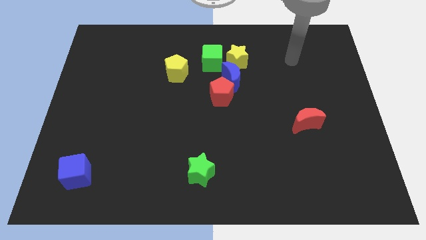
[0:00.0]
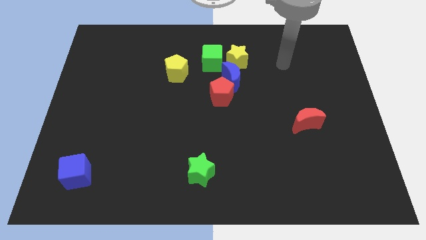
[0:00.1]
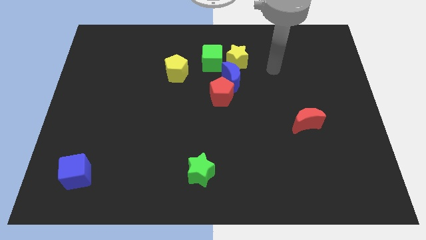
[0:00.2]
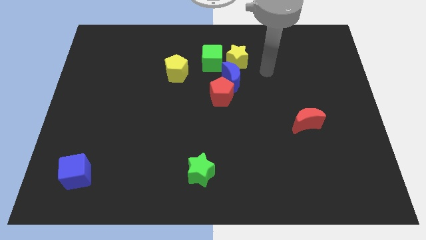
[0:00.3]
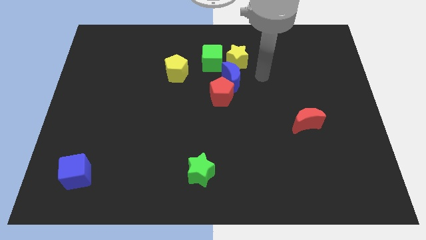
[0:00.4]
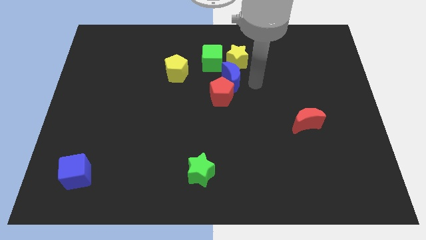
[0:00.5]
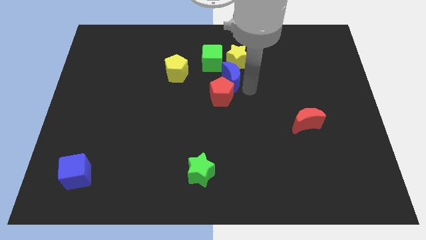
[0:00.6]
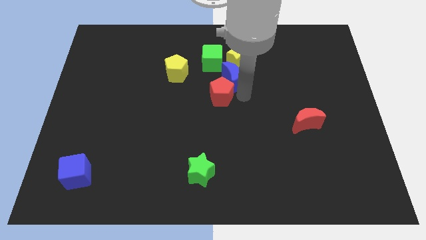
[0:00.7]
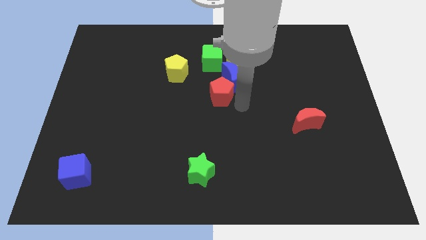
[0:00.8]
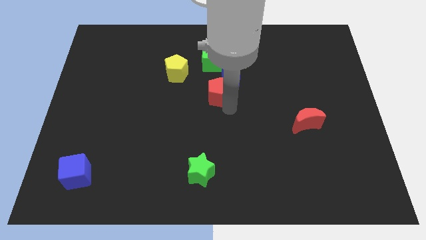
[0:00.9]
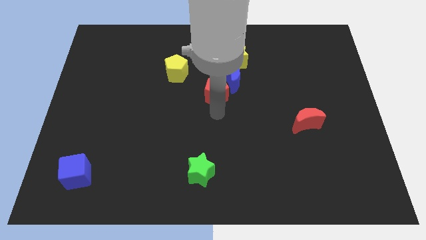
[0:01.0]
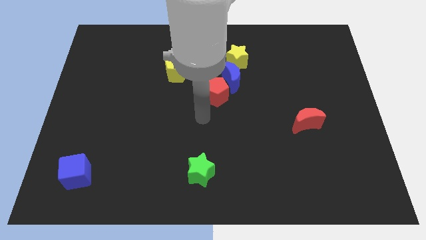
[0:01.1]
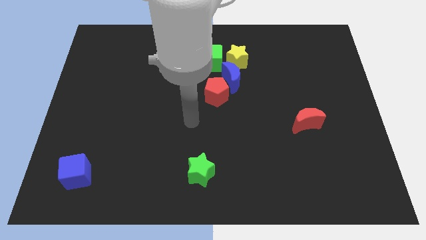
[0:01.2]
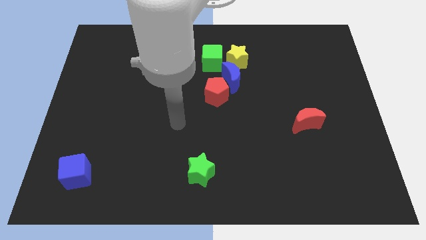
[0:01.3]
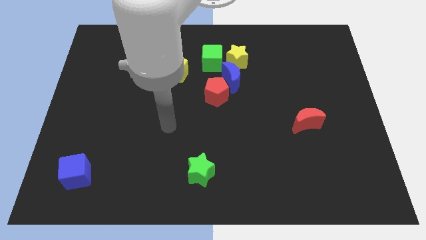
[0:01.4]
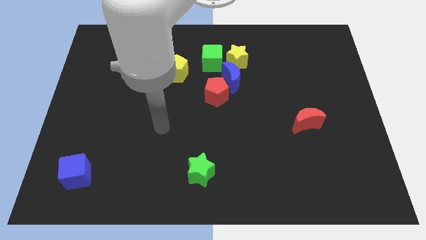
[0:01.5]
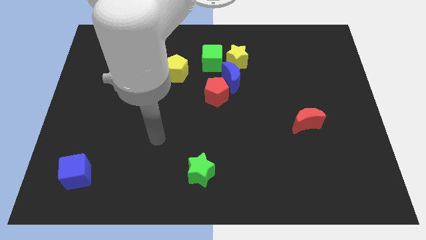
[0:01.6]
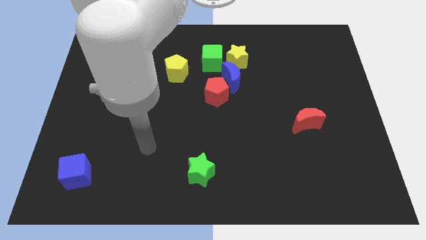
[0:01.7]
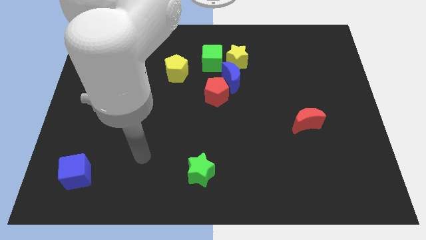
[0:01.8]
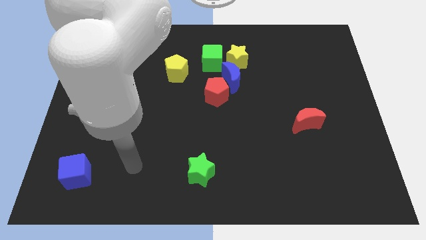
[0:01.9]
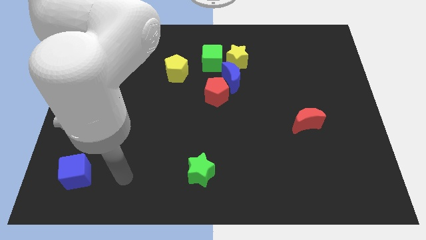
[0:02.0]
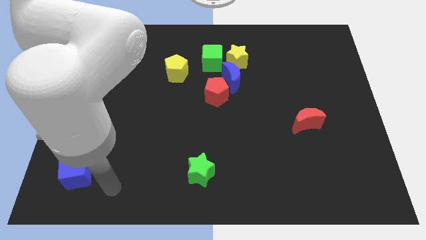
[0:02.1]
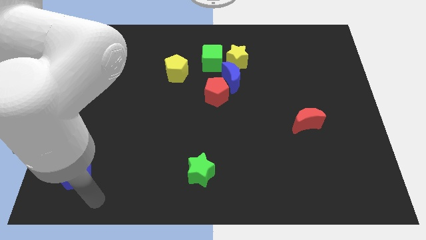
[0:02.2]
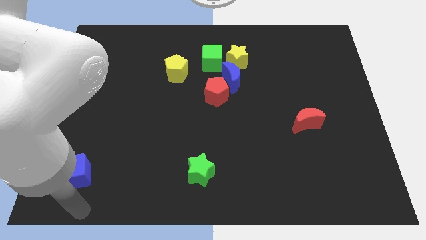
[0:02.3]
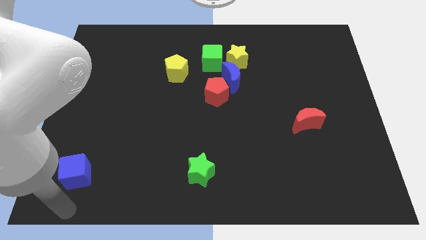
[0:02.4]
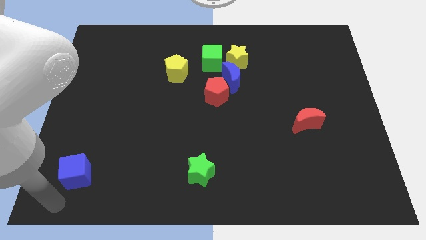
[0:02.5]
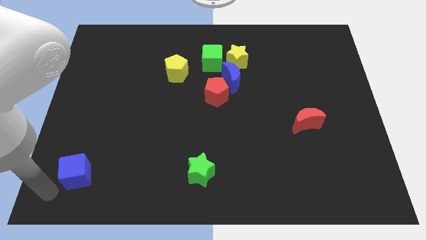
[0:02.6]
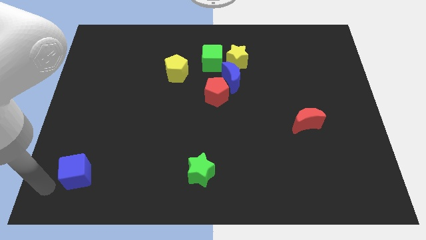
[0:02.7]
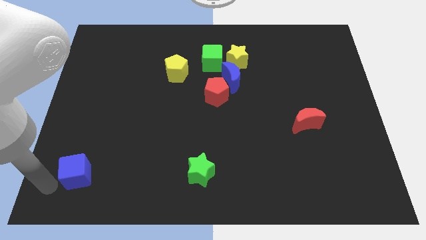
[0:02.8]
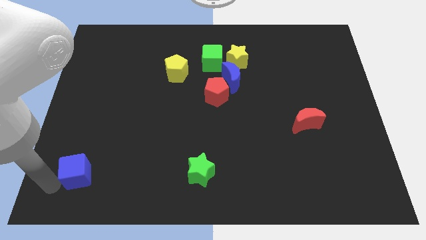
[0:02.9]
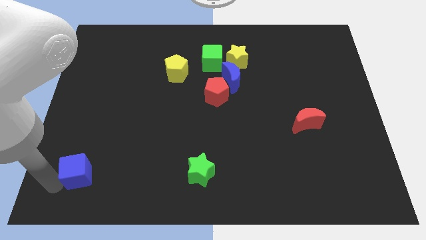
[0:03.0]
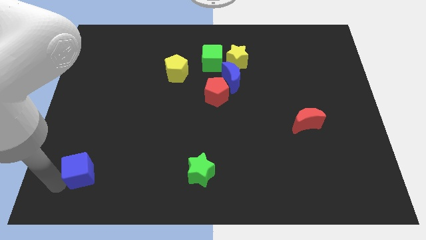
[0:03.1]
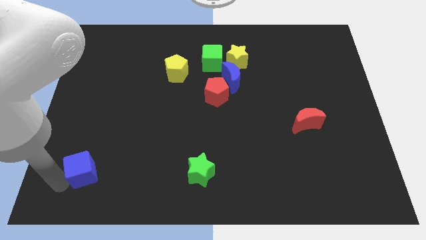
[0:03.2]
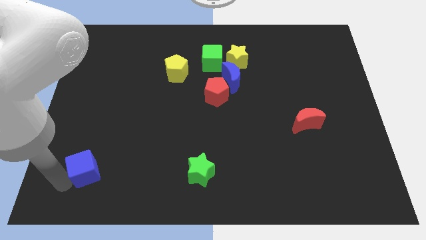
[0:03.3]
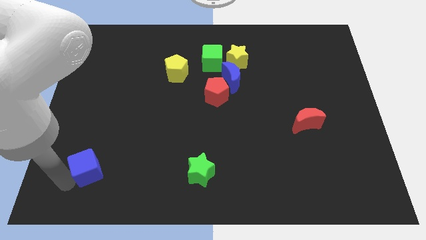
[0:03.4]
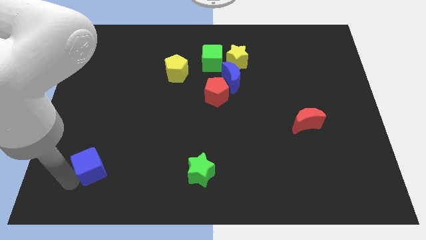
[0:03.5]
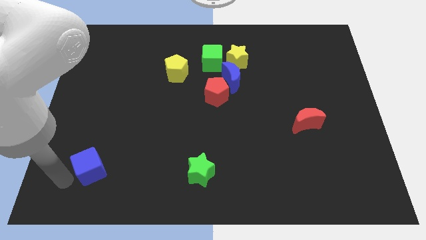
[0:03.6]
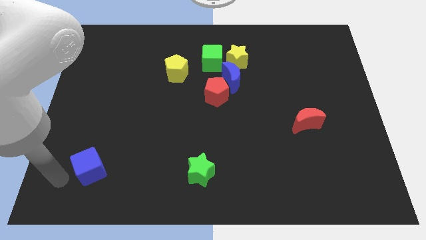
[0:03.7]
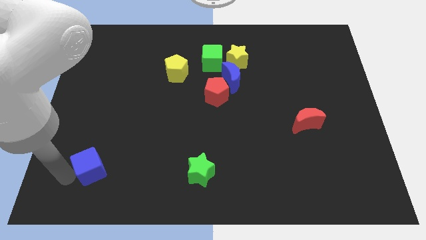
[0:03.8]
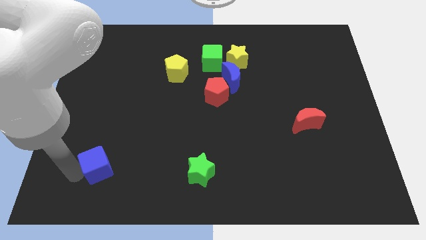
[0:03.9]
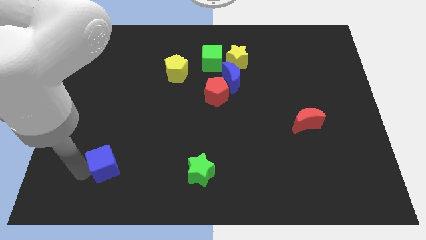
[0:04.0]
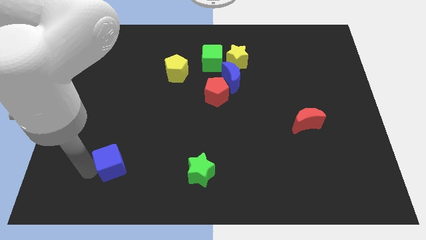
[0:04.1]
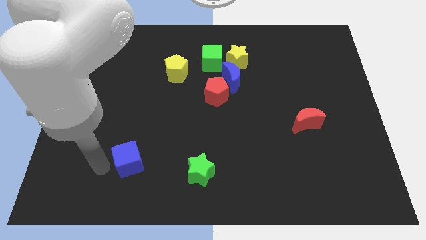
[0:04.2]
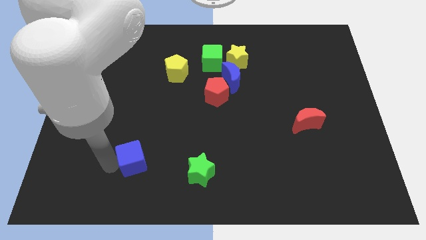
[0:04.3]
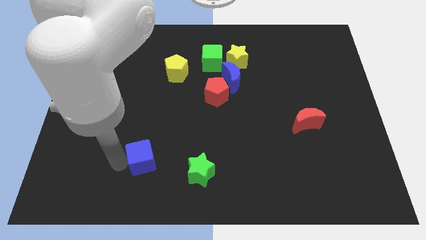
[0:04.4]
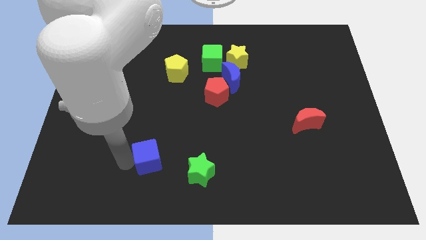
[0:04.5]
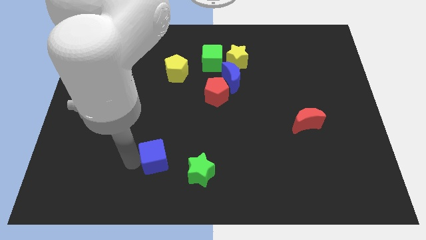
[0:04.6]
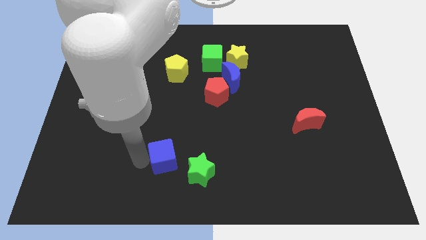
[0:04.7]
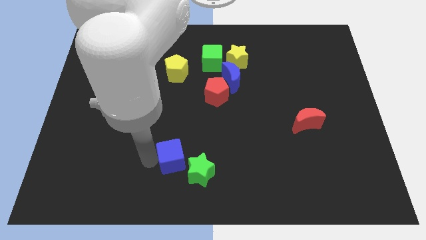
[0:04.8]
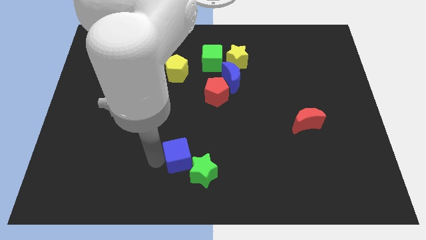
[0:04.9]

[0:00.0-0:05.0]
push the blue cube to the right

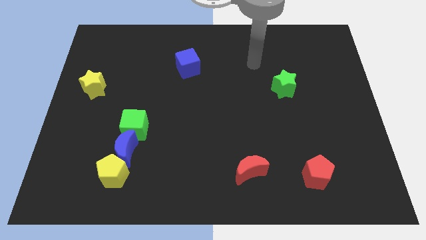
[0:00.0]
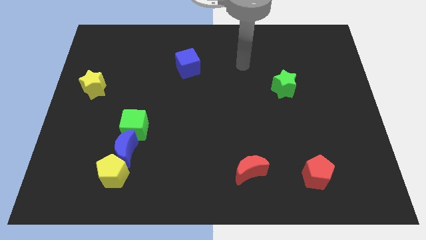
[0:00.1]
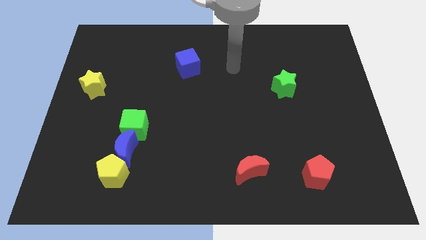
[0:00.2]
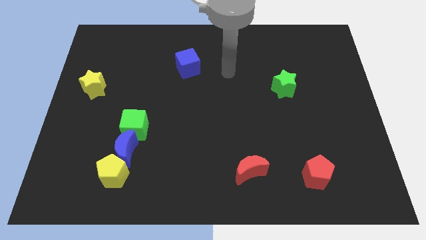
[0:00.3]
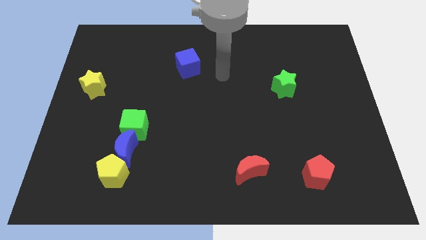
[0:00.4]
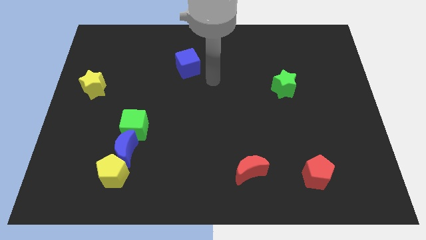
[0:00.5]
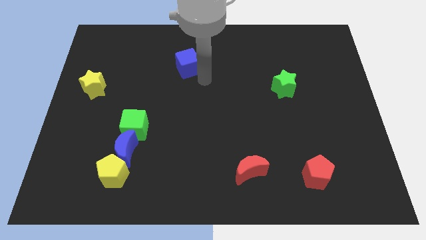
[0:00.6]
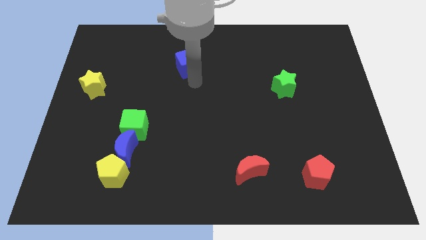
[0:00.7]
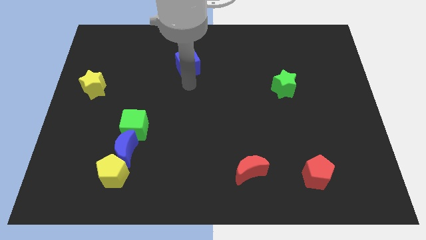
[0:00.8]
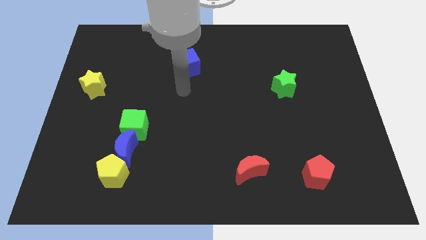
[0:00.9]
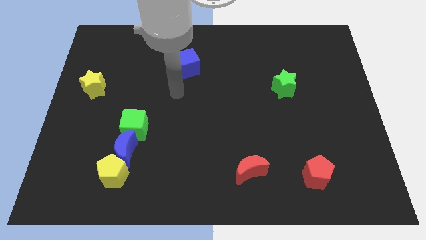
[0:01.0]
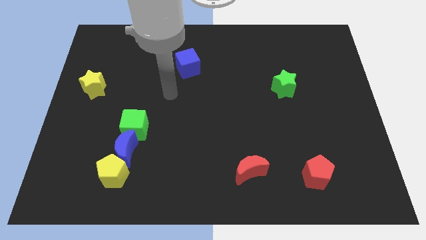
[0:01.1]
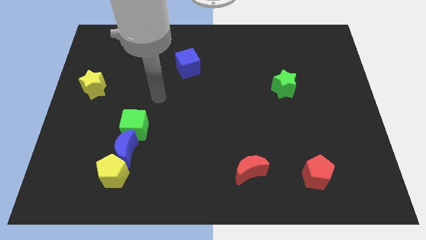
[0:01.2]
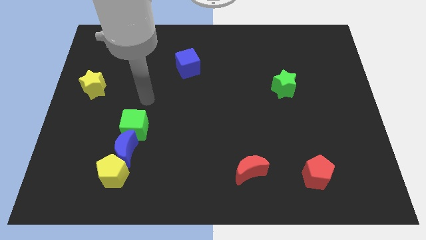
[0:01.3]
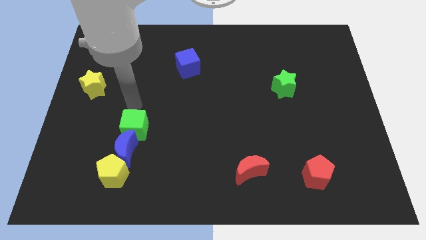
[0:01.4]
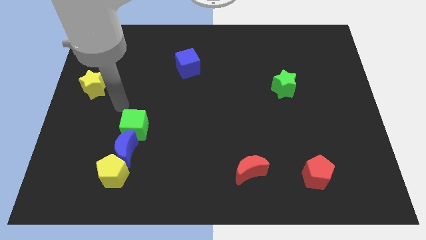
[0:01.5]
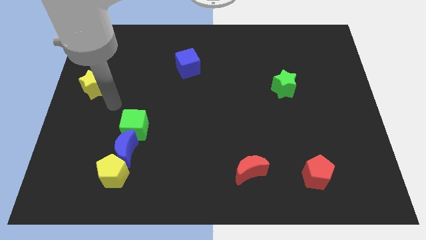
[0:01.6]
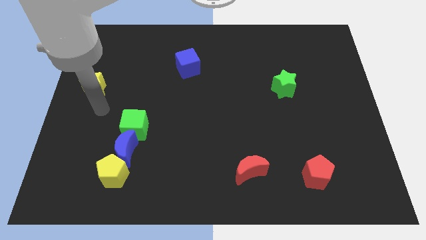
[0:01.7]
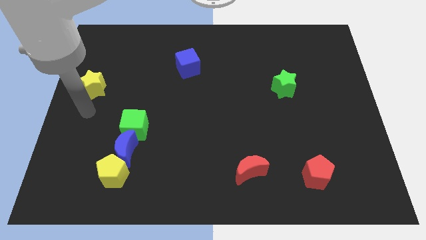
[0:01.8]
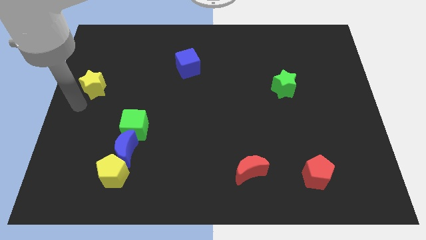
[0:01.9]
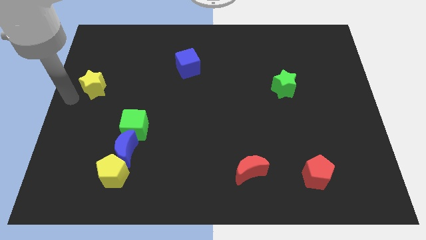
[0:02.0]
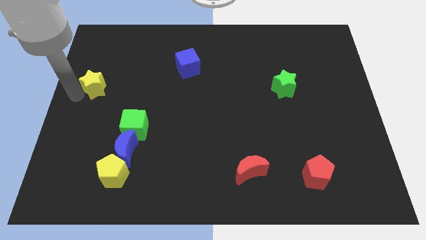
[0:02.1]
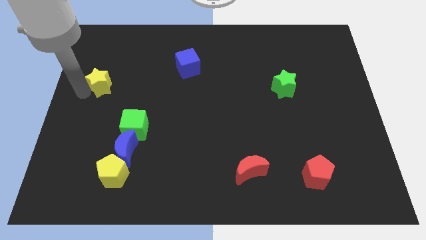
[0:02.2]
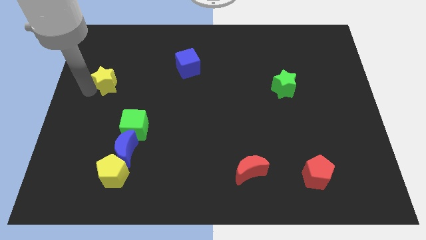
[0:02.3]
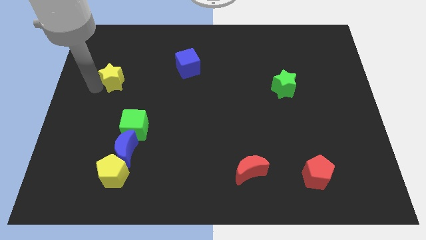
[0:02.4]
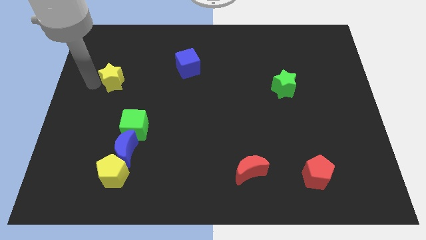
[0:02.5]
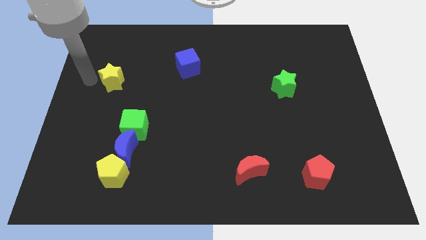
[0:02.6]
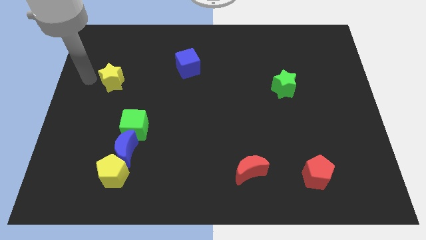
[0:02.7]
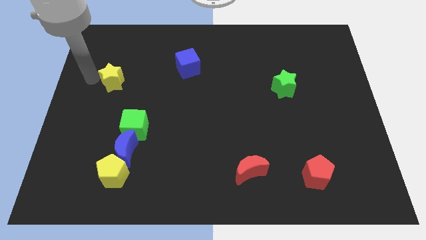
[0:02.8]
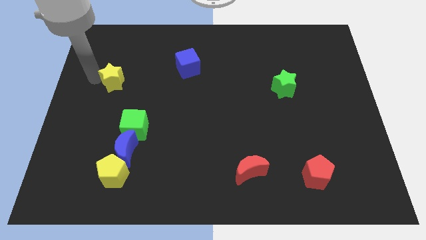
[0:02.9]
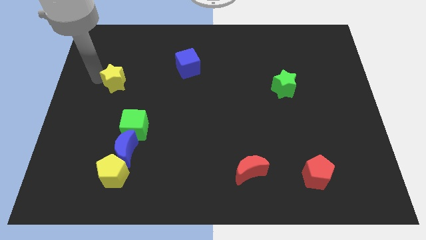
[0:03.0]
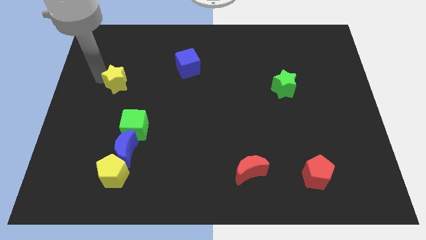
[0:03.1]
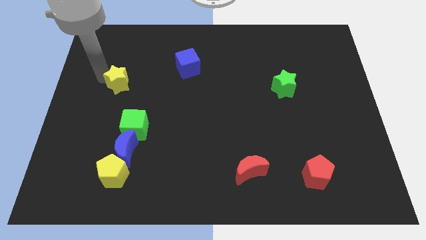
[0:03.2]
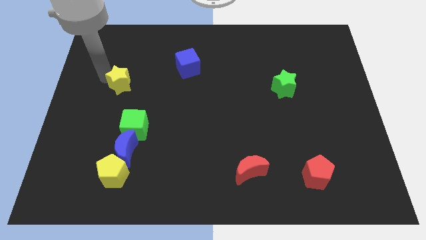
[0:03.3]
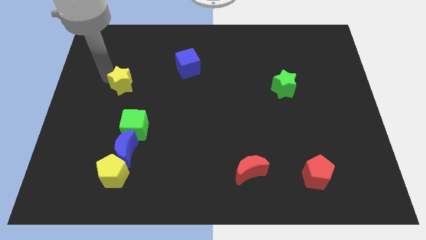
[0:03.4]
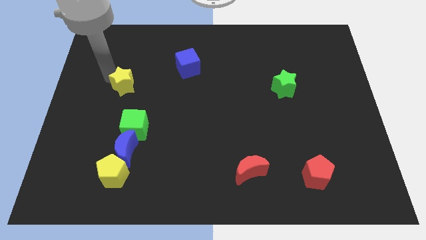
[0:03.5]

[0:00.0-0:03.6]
move the yellow star a bit right
